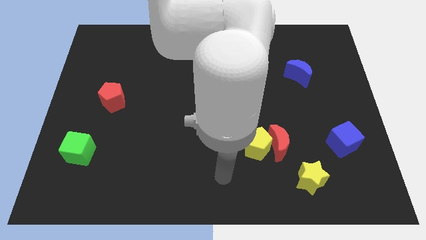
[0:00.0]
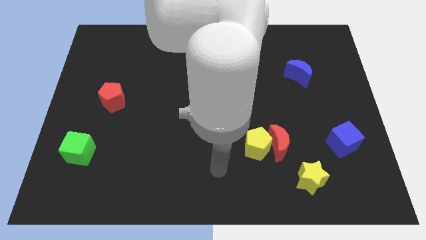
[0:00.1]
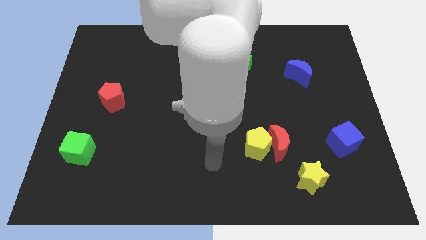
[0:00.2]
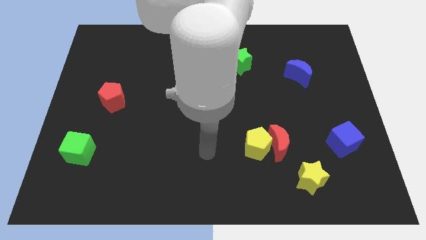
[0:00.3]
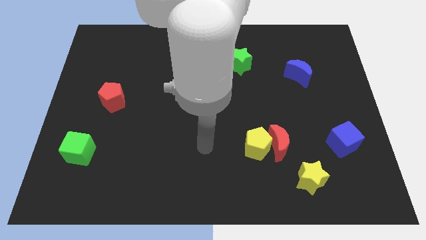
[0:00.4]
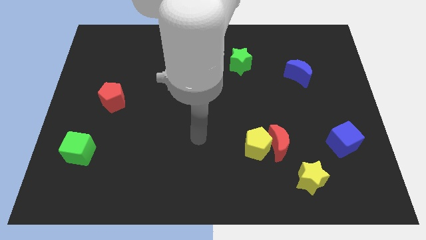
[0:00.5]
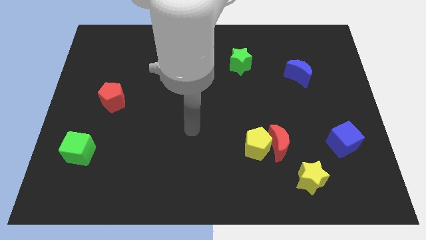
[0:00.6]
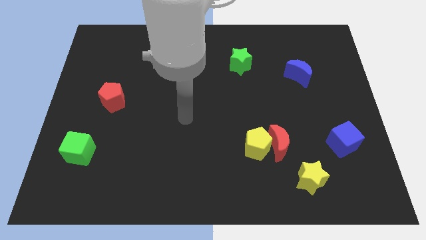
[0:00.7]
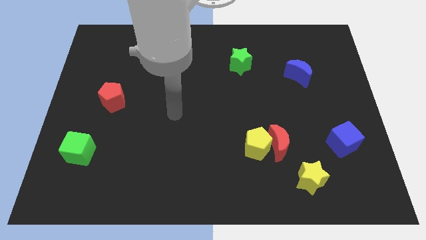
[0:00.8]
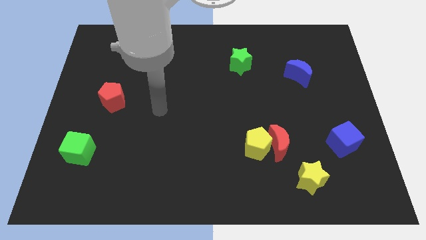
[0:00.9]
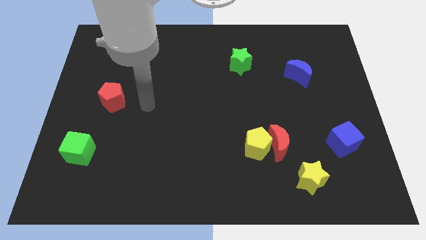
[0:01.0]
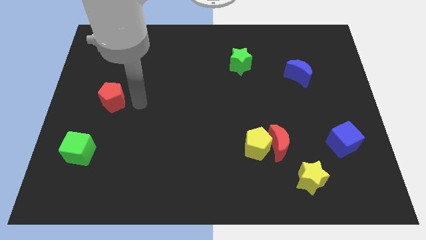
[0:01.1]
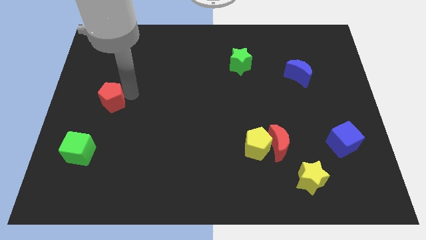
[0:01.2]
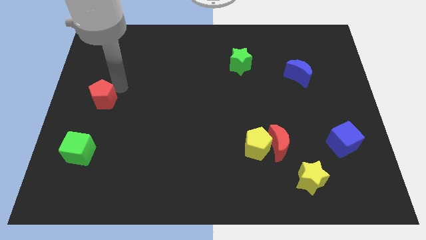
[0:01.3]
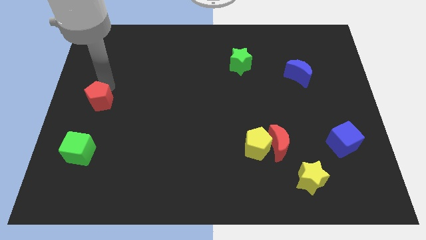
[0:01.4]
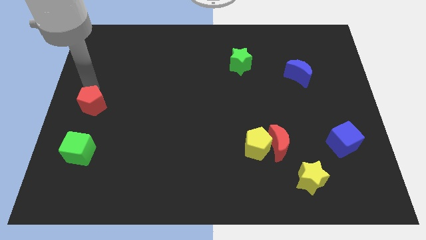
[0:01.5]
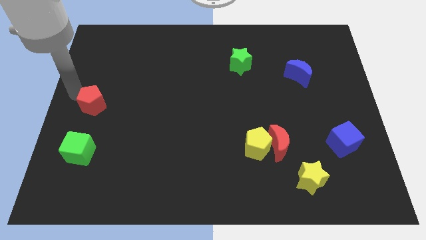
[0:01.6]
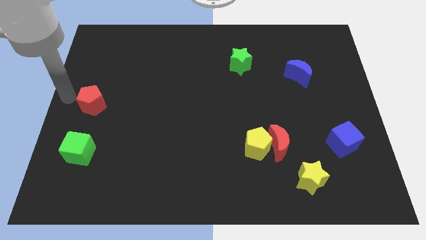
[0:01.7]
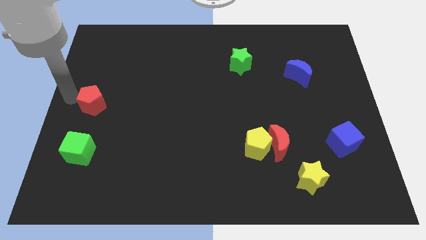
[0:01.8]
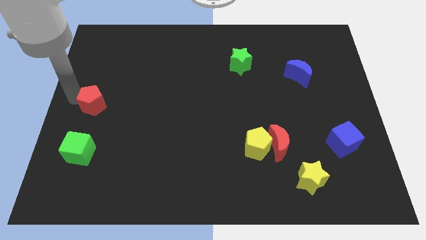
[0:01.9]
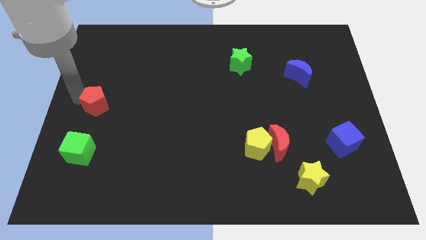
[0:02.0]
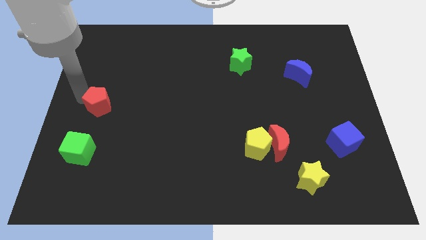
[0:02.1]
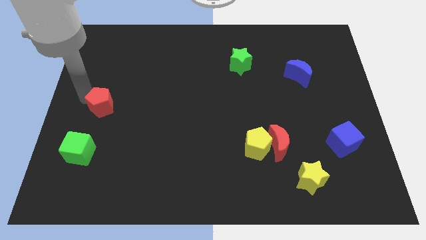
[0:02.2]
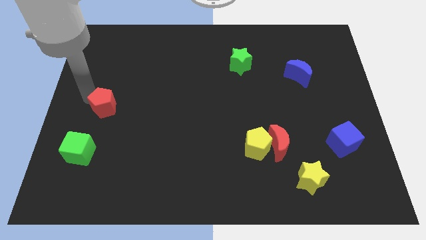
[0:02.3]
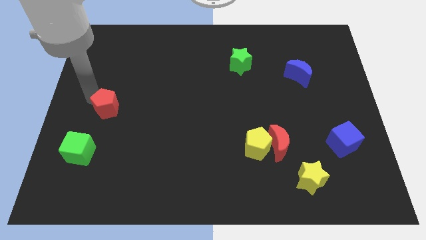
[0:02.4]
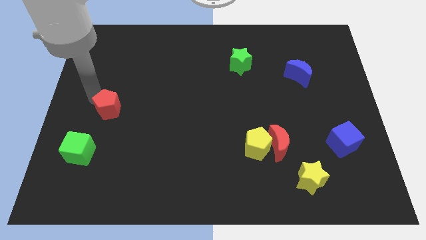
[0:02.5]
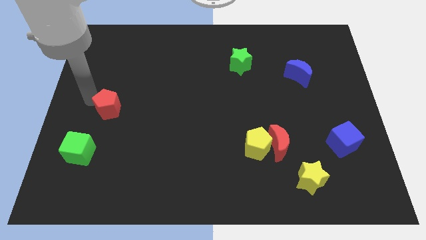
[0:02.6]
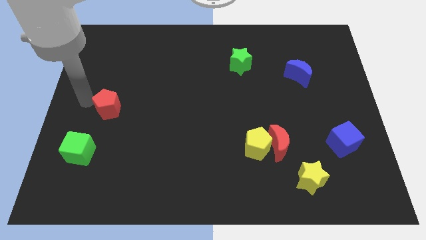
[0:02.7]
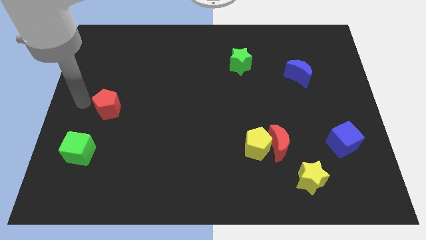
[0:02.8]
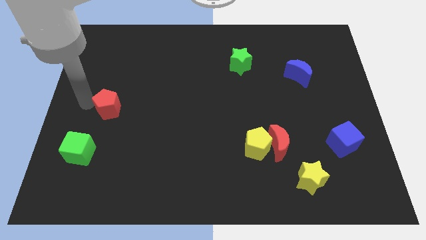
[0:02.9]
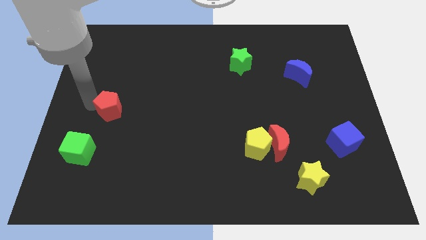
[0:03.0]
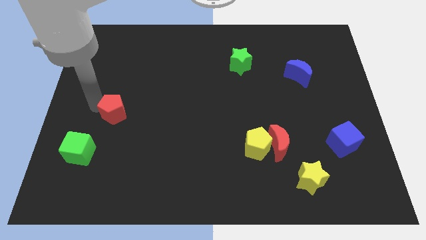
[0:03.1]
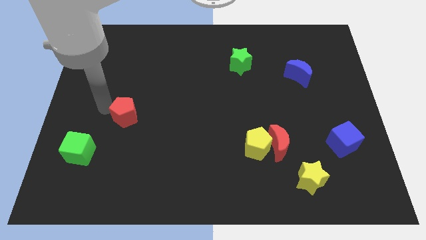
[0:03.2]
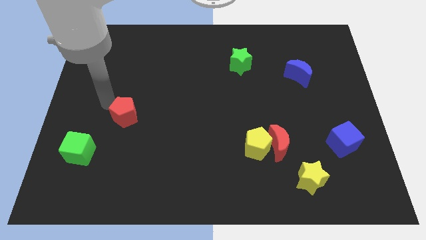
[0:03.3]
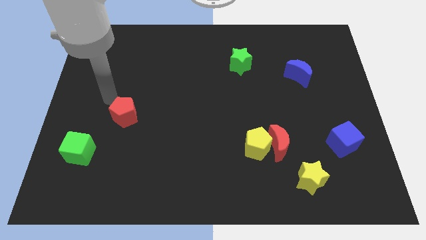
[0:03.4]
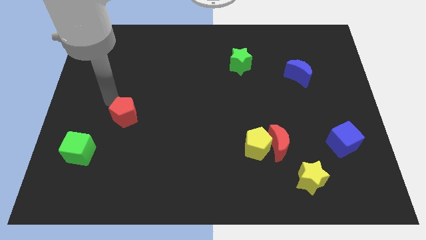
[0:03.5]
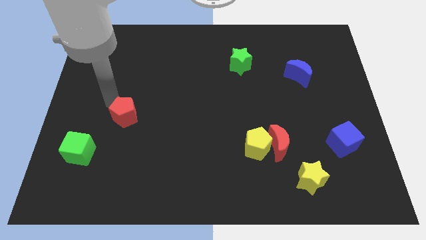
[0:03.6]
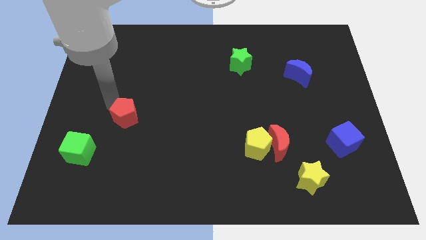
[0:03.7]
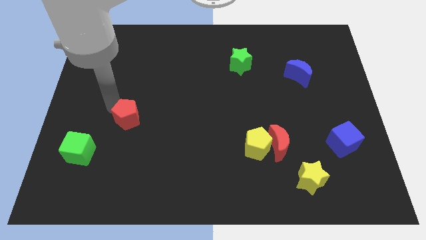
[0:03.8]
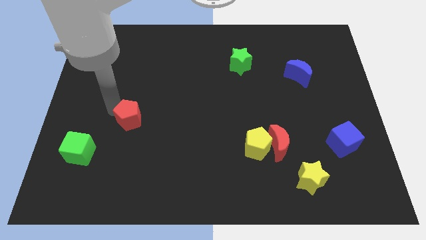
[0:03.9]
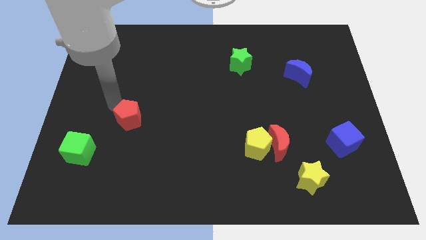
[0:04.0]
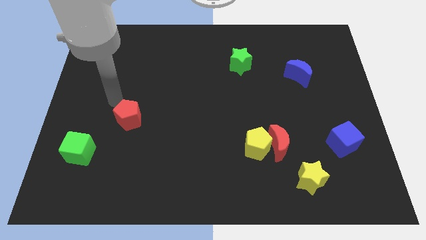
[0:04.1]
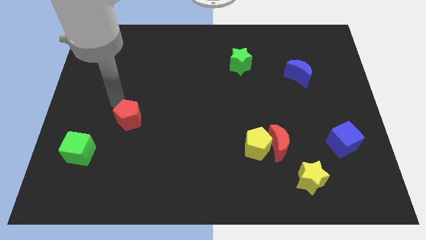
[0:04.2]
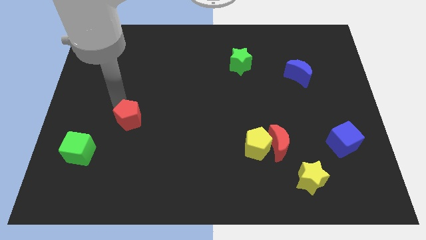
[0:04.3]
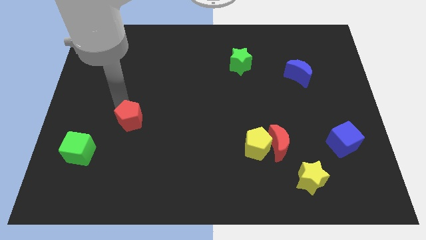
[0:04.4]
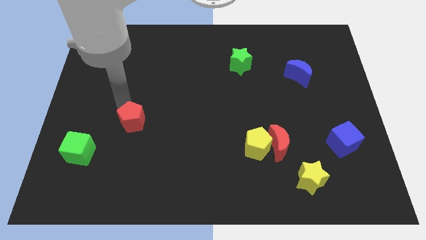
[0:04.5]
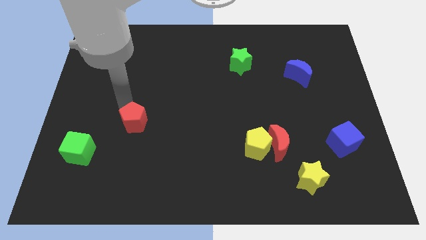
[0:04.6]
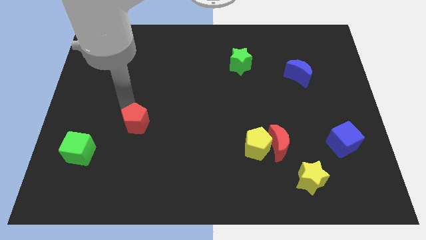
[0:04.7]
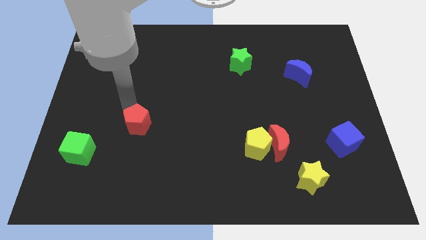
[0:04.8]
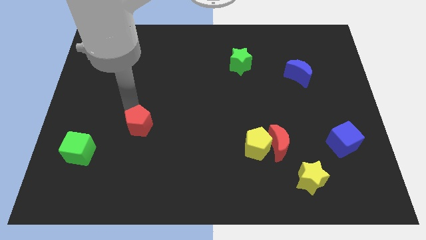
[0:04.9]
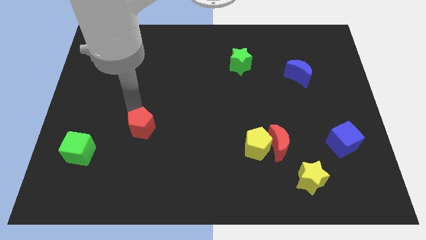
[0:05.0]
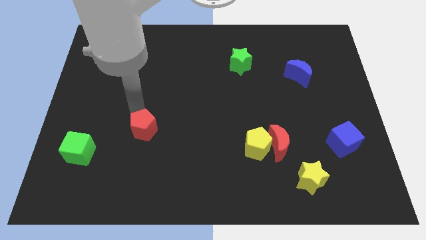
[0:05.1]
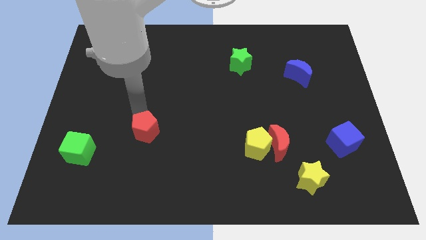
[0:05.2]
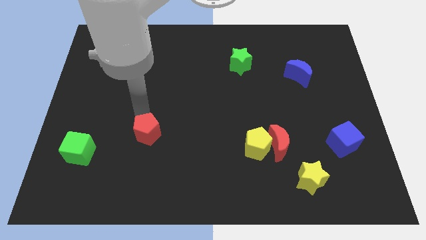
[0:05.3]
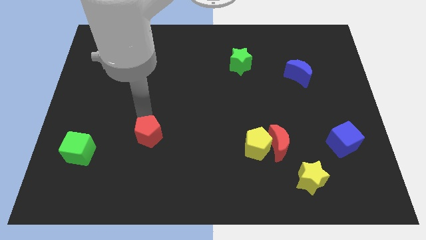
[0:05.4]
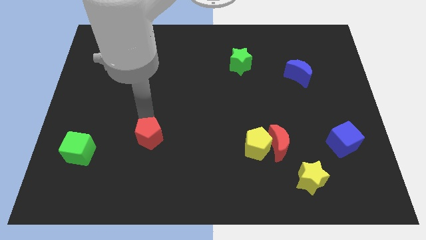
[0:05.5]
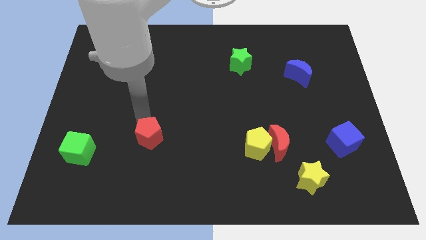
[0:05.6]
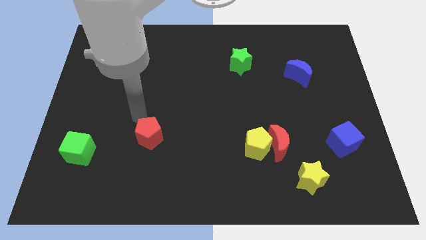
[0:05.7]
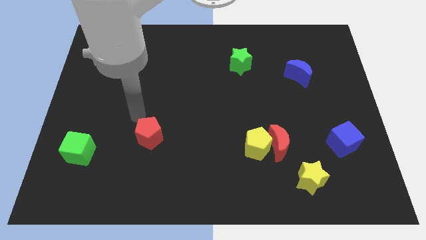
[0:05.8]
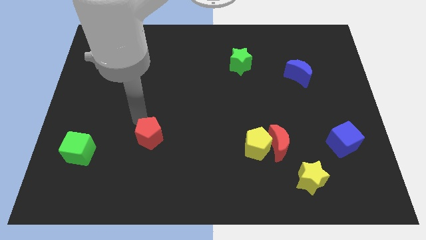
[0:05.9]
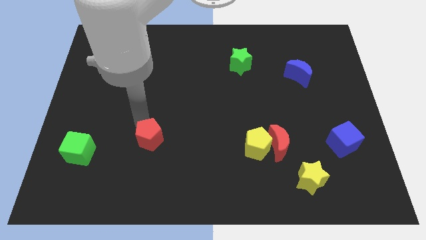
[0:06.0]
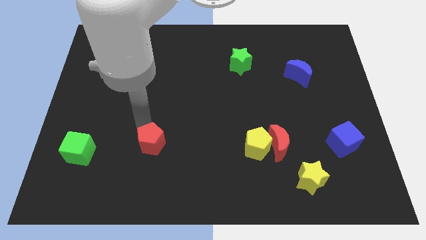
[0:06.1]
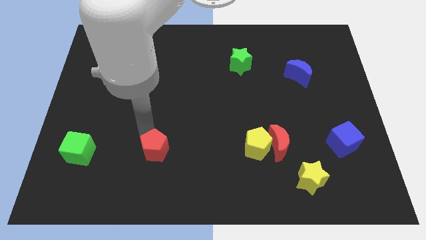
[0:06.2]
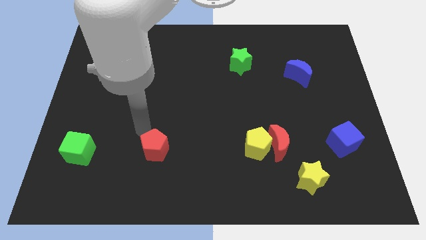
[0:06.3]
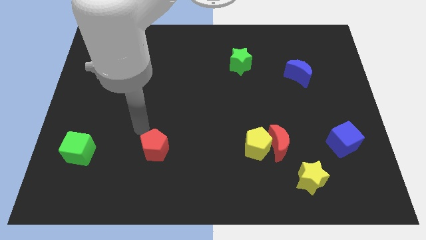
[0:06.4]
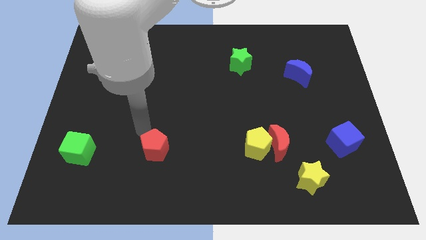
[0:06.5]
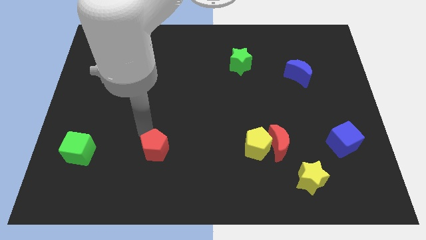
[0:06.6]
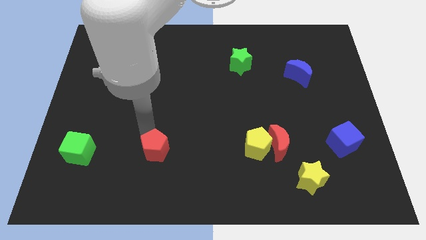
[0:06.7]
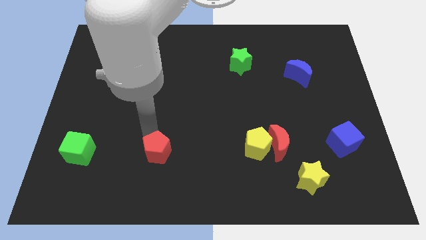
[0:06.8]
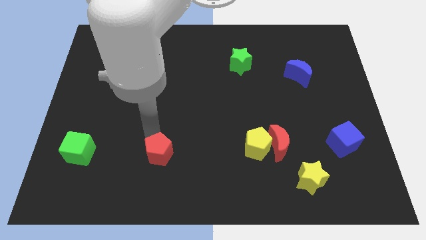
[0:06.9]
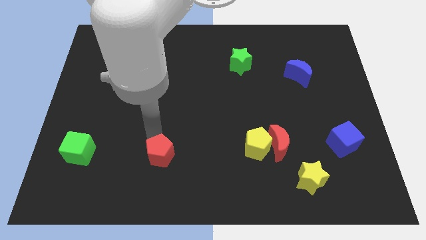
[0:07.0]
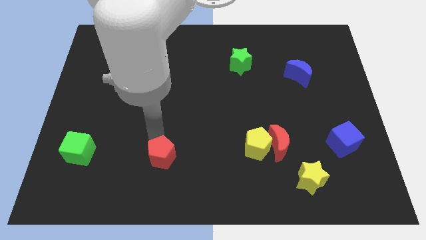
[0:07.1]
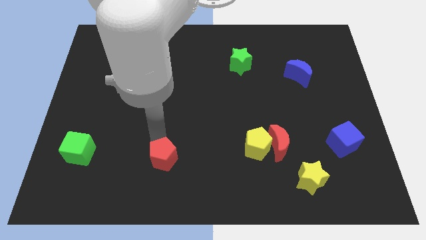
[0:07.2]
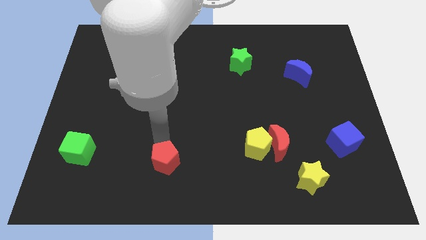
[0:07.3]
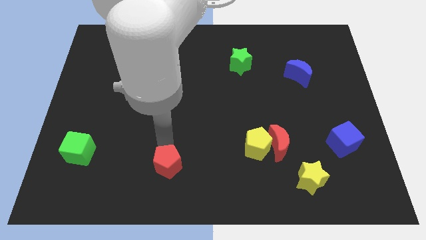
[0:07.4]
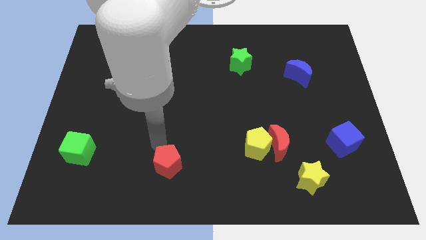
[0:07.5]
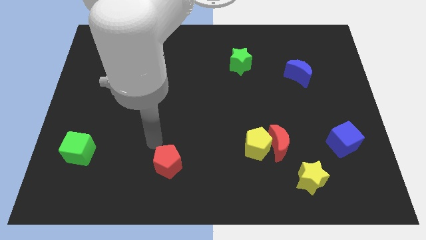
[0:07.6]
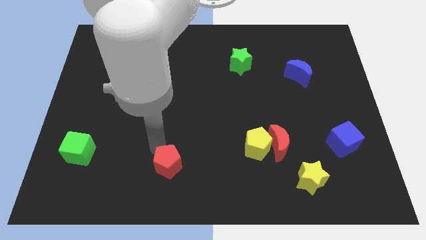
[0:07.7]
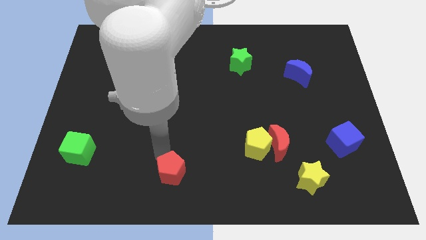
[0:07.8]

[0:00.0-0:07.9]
push the red pentagon to the bottom
